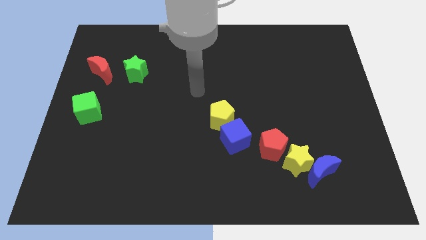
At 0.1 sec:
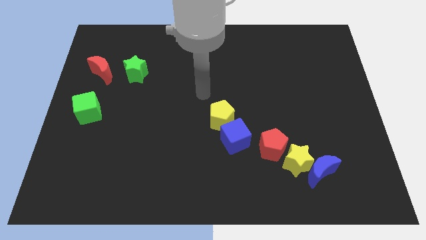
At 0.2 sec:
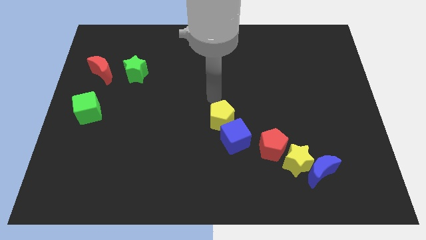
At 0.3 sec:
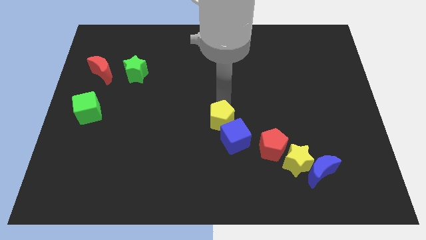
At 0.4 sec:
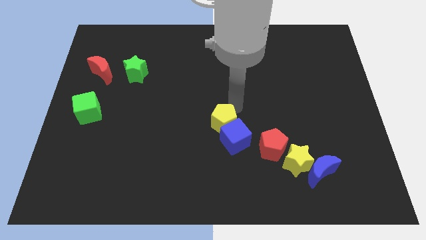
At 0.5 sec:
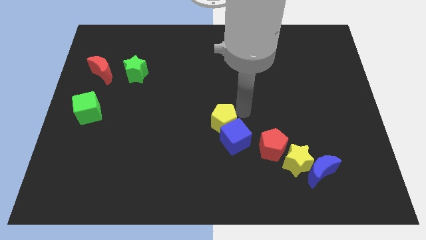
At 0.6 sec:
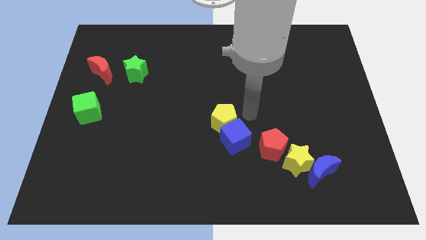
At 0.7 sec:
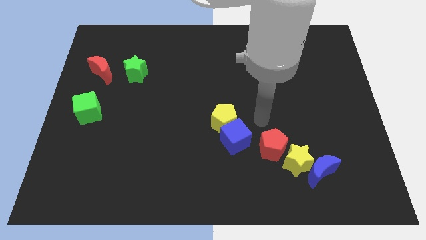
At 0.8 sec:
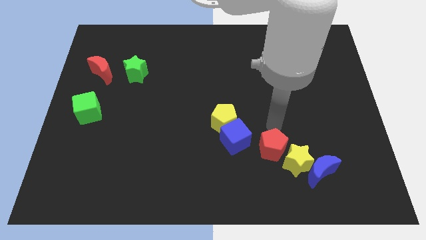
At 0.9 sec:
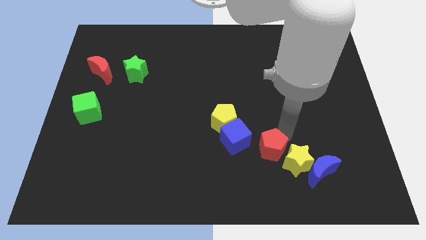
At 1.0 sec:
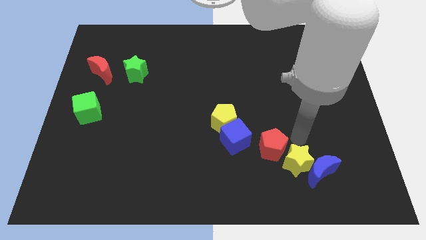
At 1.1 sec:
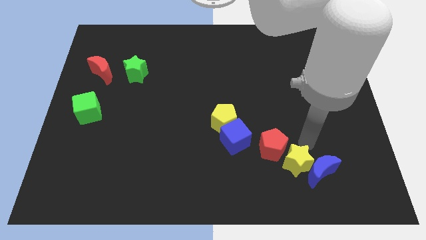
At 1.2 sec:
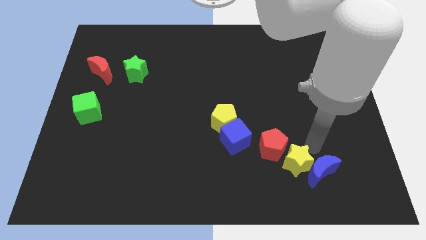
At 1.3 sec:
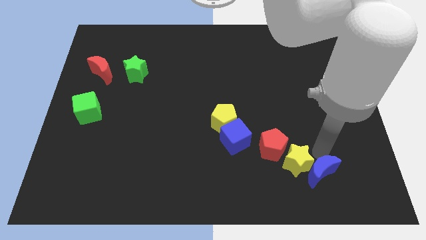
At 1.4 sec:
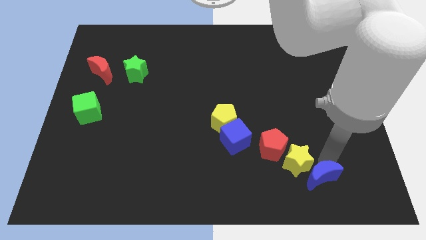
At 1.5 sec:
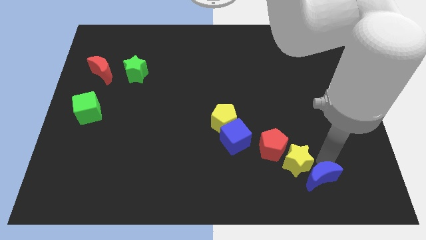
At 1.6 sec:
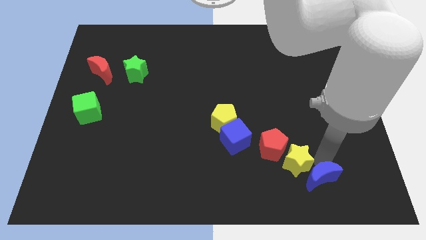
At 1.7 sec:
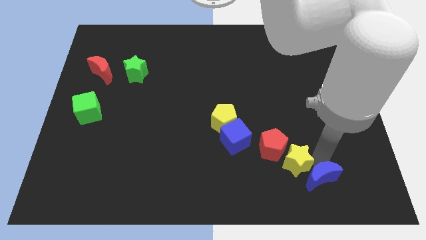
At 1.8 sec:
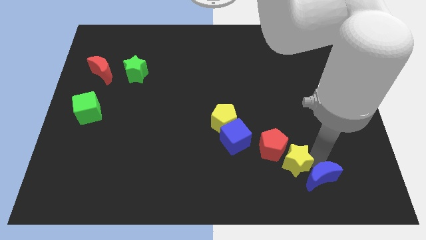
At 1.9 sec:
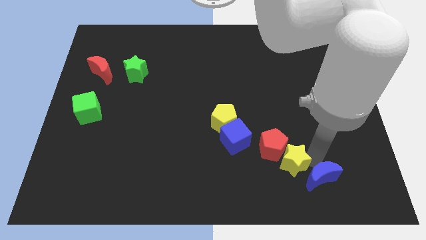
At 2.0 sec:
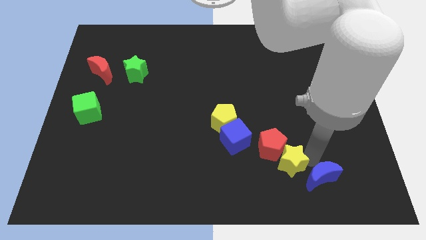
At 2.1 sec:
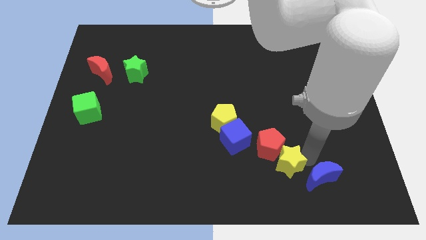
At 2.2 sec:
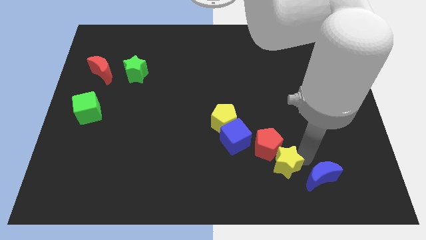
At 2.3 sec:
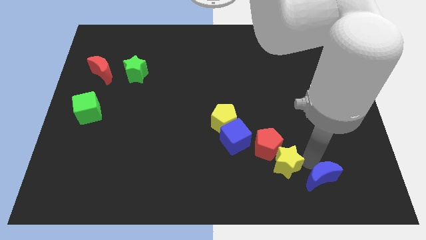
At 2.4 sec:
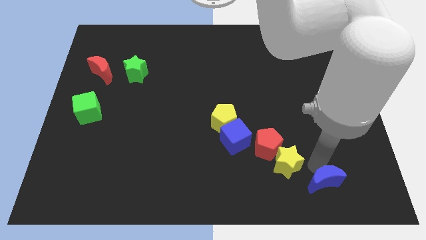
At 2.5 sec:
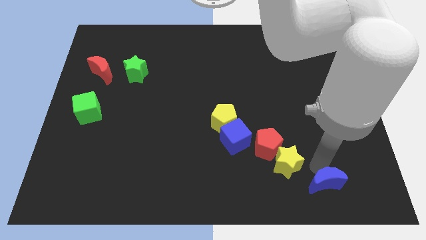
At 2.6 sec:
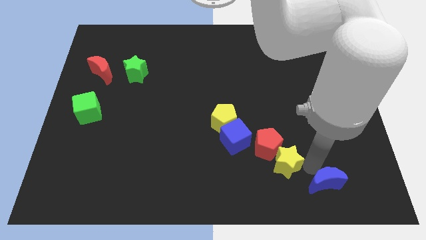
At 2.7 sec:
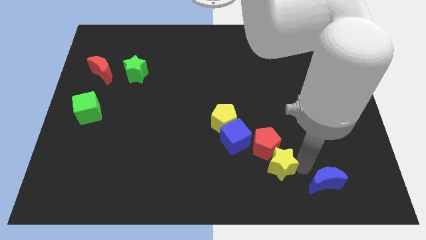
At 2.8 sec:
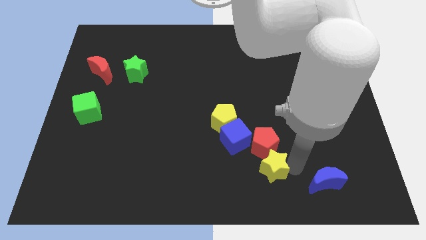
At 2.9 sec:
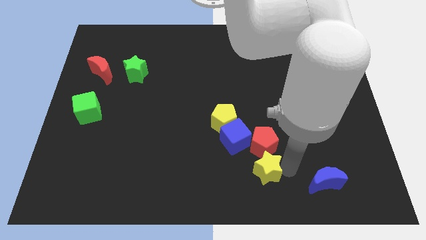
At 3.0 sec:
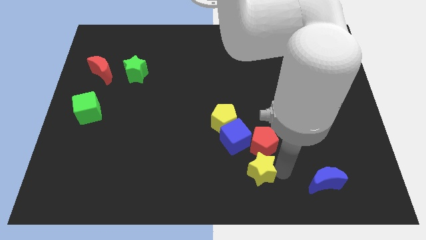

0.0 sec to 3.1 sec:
move the yellow star a bit left

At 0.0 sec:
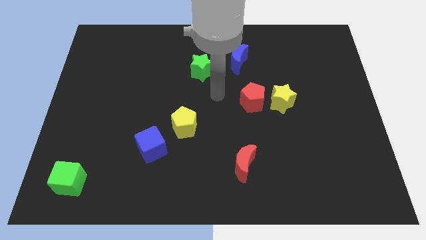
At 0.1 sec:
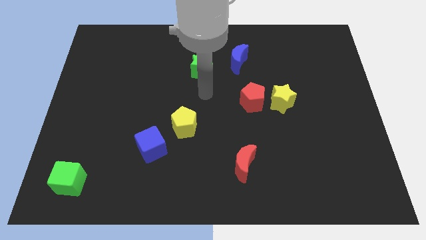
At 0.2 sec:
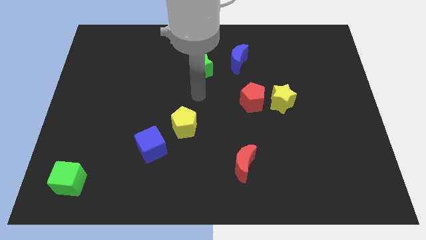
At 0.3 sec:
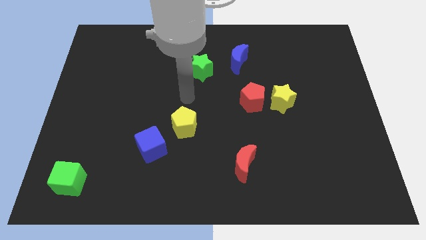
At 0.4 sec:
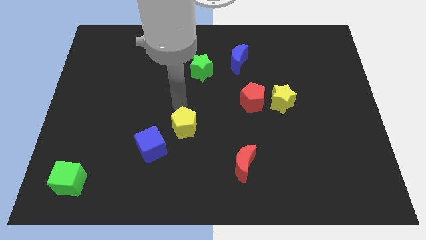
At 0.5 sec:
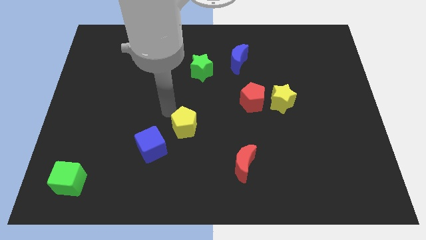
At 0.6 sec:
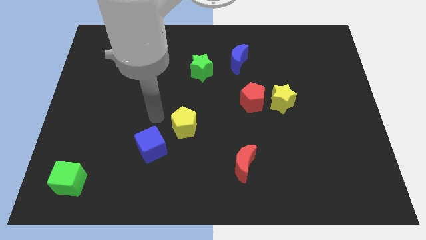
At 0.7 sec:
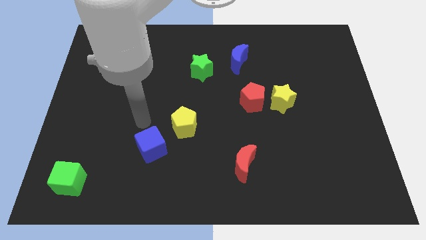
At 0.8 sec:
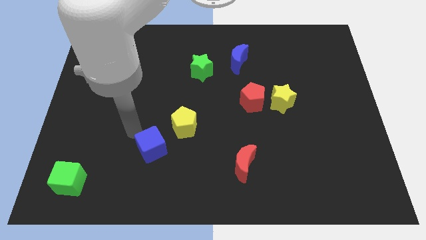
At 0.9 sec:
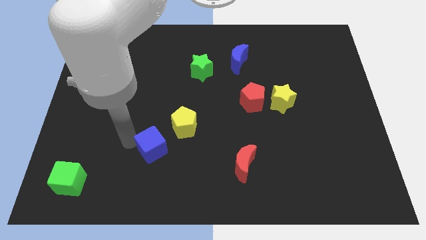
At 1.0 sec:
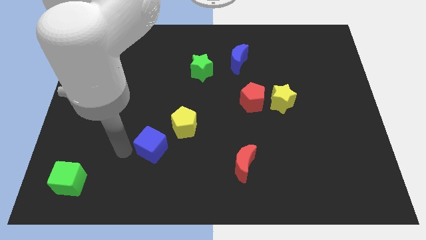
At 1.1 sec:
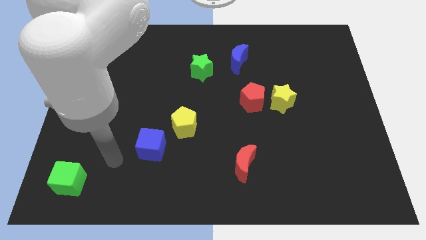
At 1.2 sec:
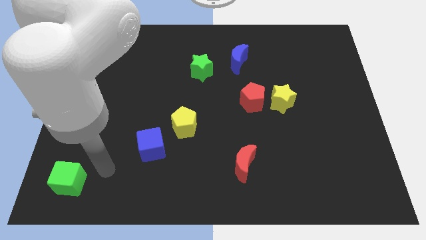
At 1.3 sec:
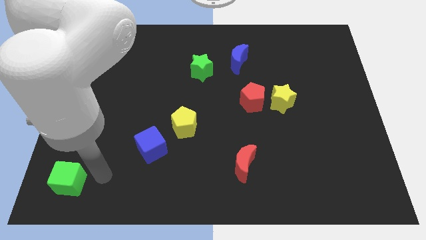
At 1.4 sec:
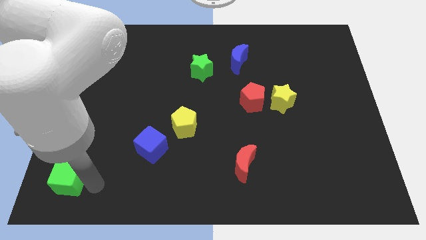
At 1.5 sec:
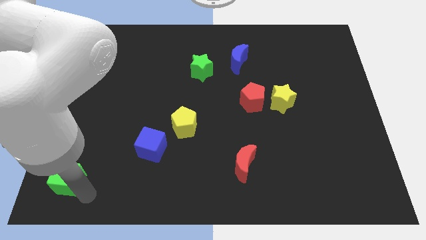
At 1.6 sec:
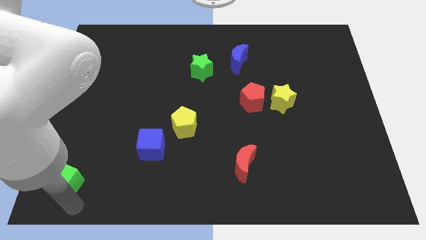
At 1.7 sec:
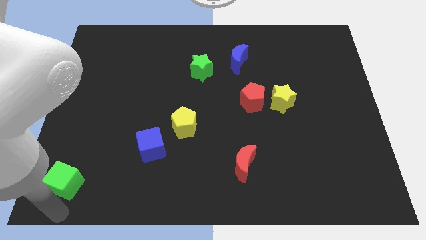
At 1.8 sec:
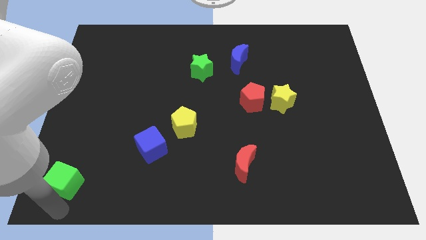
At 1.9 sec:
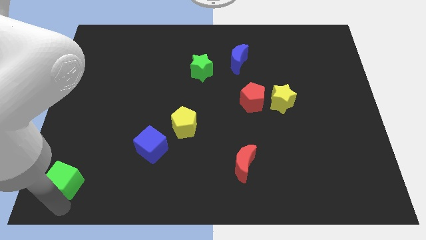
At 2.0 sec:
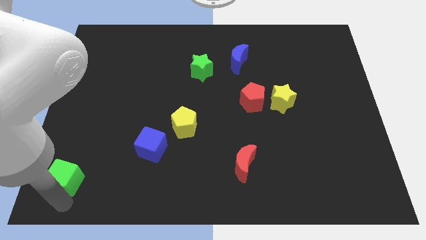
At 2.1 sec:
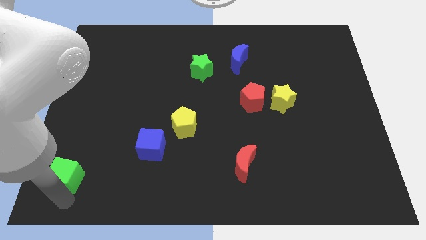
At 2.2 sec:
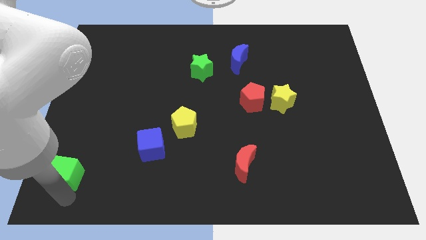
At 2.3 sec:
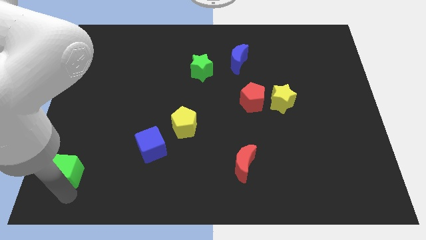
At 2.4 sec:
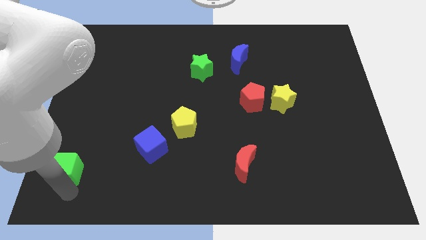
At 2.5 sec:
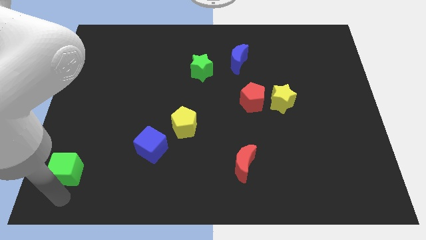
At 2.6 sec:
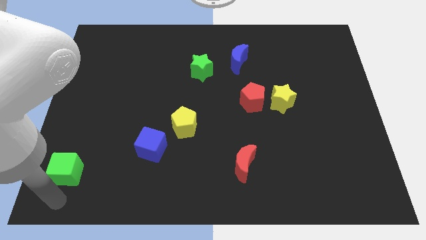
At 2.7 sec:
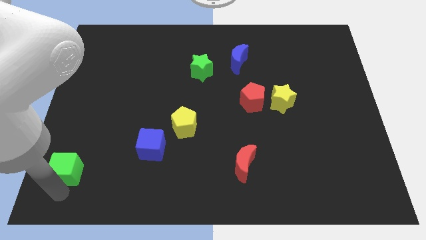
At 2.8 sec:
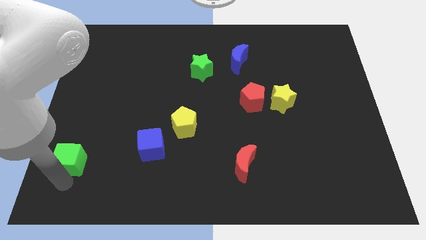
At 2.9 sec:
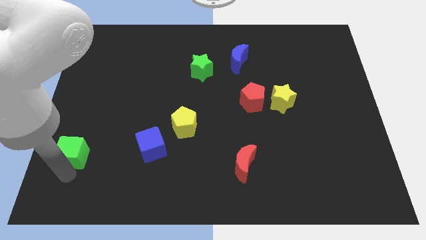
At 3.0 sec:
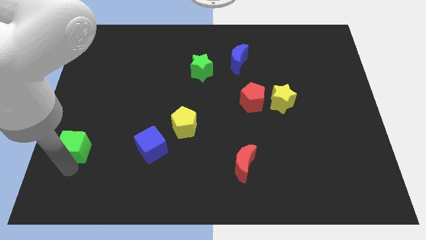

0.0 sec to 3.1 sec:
slightly slide the green cube upwards

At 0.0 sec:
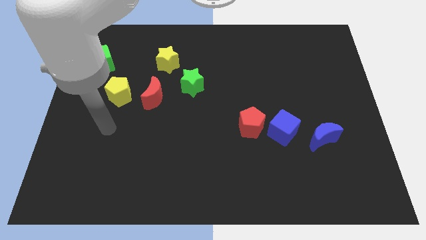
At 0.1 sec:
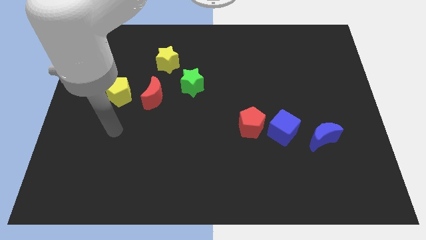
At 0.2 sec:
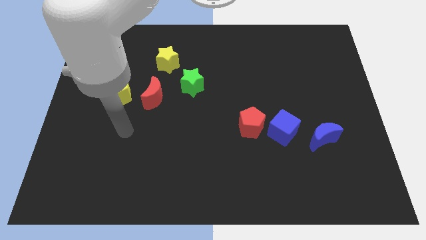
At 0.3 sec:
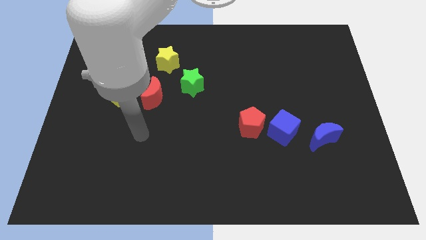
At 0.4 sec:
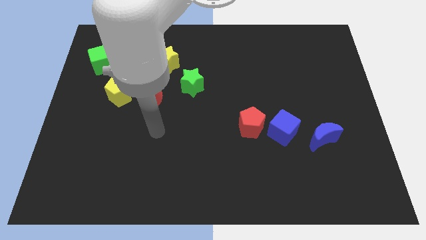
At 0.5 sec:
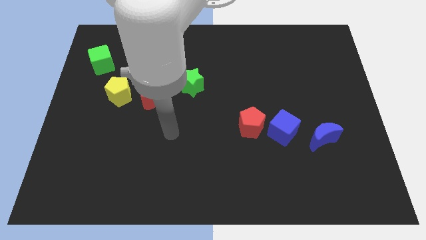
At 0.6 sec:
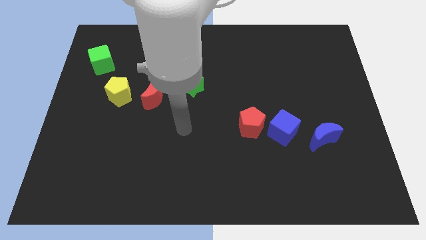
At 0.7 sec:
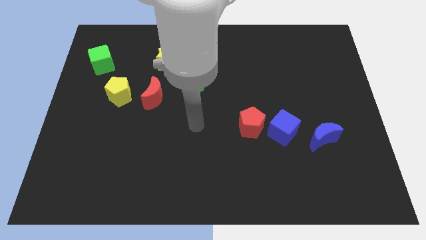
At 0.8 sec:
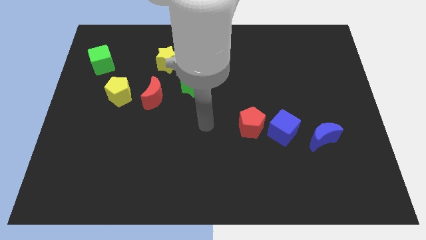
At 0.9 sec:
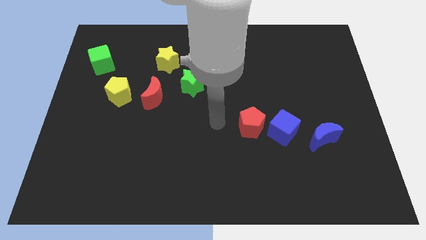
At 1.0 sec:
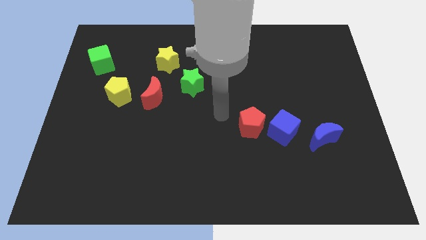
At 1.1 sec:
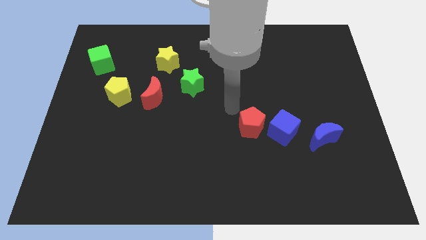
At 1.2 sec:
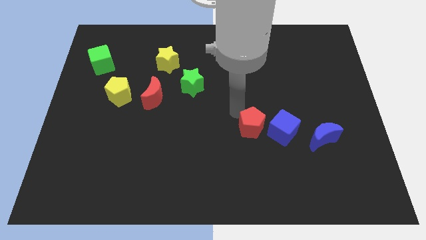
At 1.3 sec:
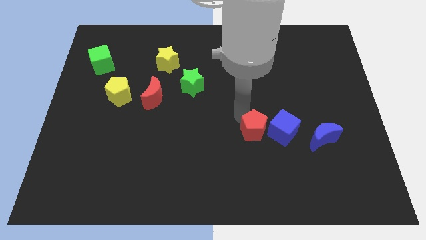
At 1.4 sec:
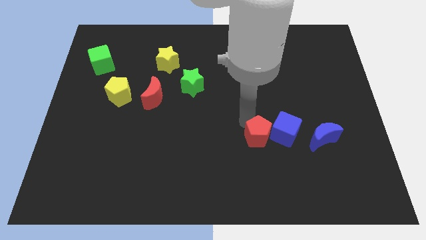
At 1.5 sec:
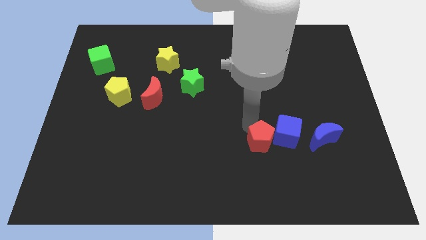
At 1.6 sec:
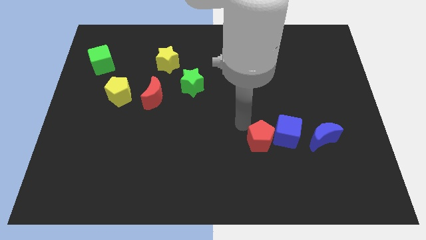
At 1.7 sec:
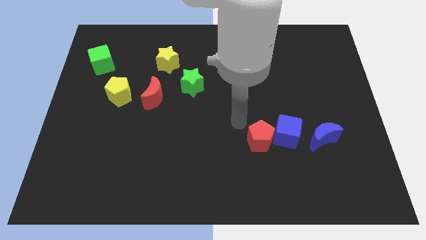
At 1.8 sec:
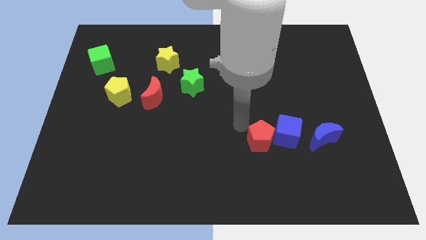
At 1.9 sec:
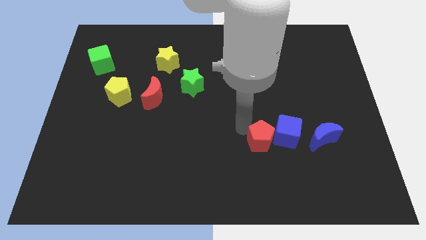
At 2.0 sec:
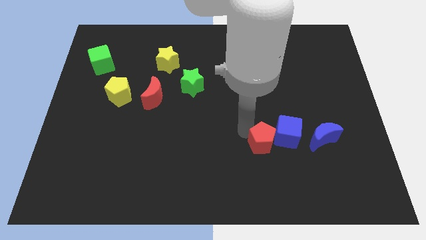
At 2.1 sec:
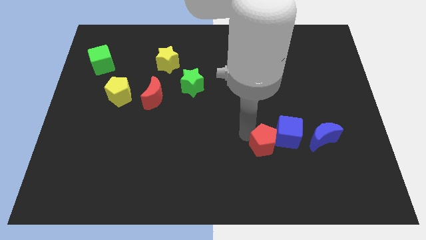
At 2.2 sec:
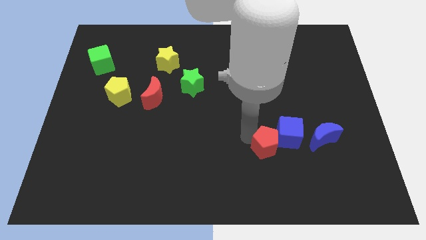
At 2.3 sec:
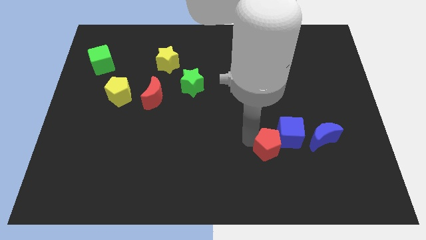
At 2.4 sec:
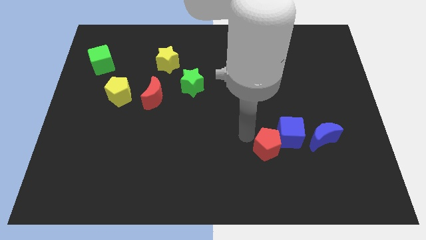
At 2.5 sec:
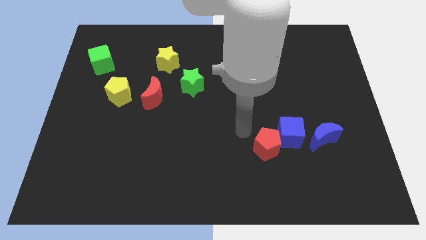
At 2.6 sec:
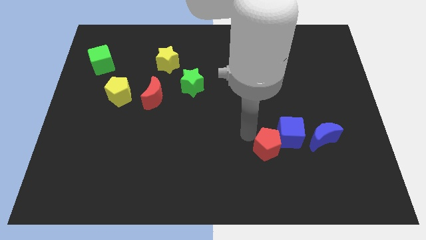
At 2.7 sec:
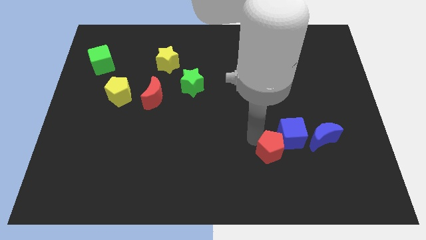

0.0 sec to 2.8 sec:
push the red pentagon somewhat diagonally down and to the right
